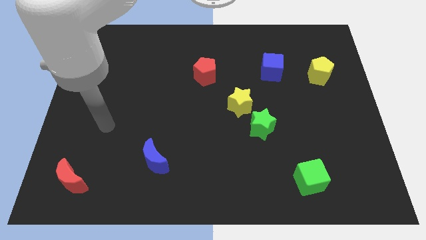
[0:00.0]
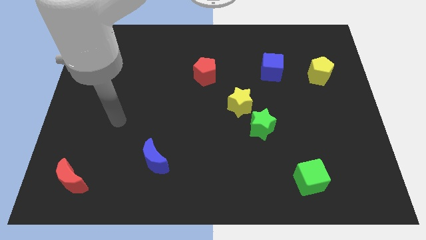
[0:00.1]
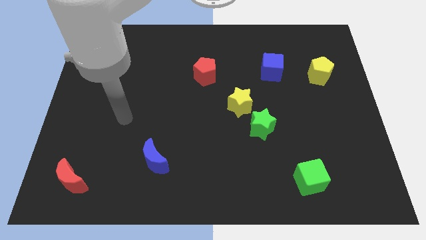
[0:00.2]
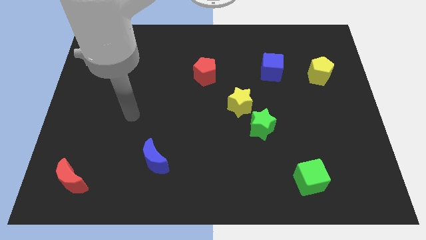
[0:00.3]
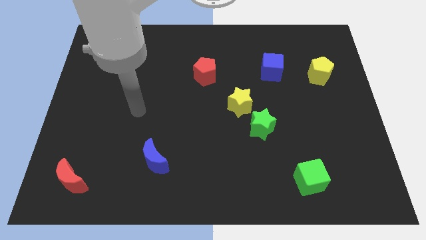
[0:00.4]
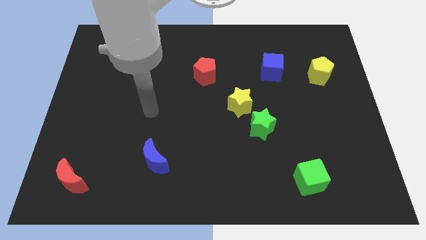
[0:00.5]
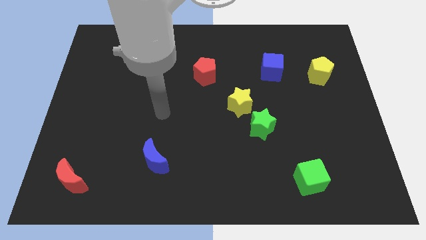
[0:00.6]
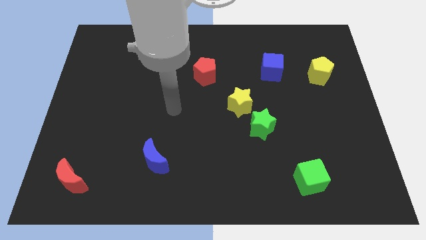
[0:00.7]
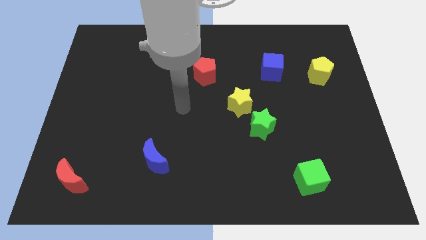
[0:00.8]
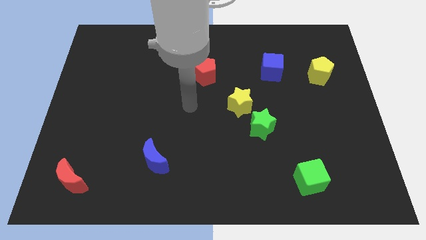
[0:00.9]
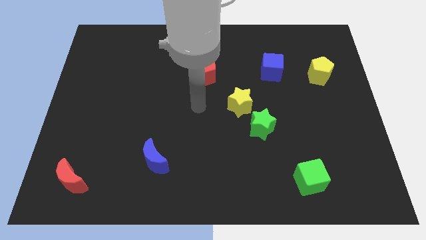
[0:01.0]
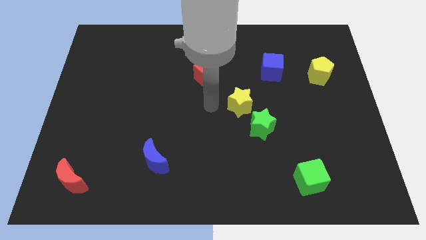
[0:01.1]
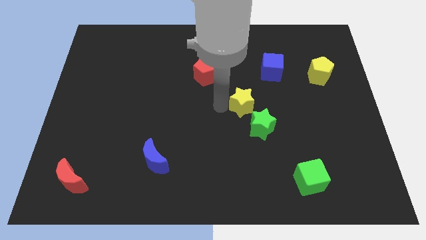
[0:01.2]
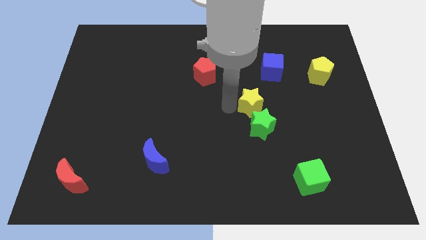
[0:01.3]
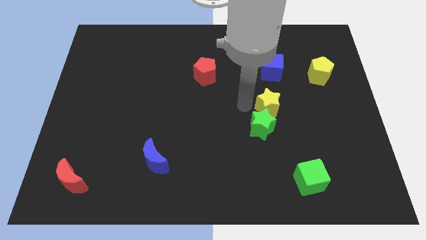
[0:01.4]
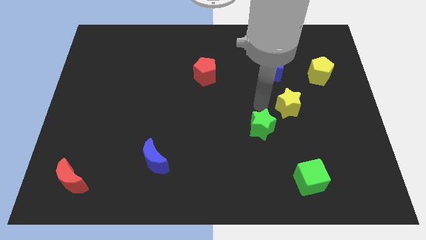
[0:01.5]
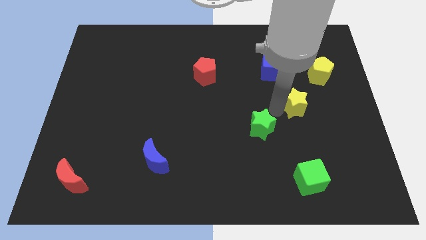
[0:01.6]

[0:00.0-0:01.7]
separate the green star from the yellow star

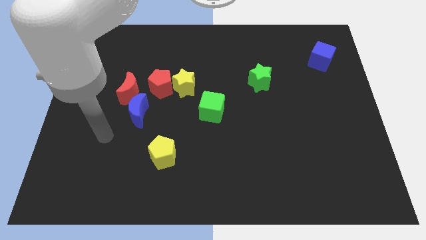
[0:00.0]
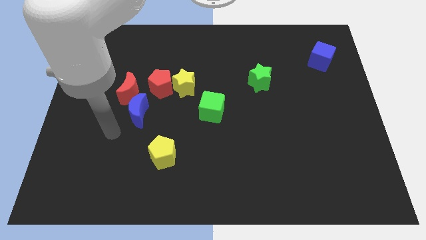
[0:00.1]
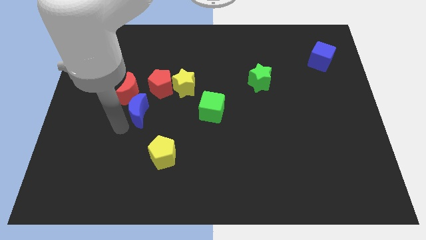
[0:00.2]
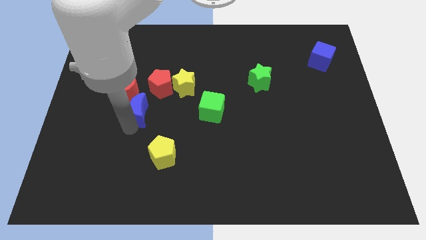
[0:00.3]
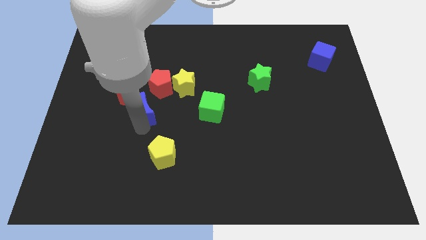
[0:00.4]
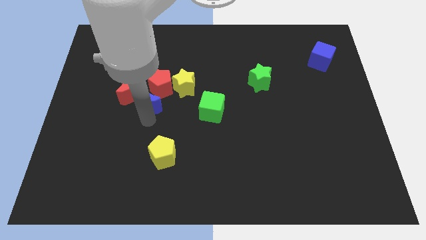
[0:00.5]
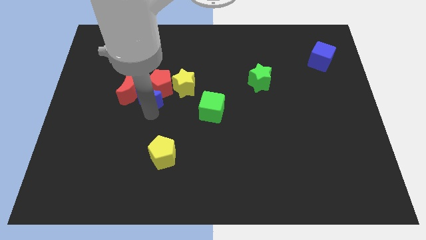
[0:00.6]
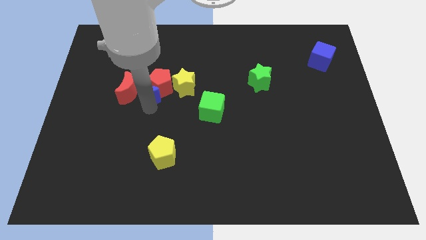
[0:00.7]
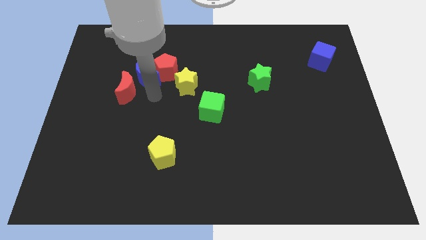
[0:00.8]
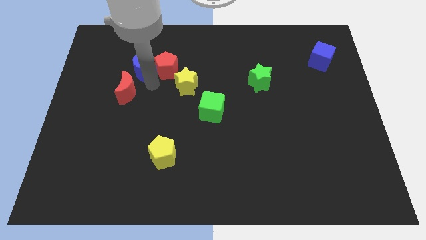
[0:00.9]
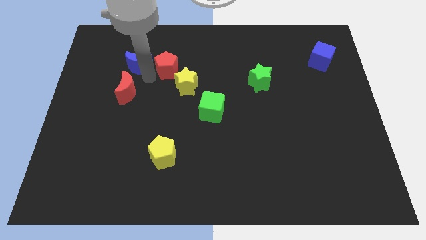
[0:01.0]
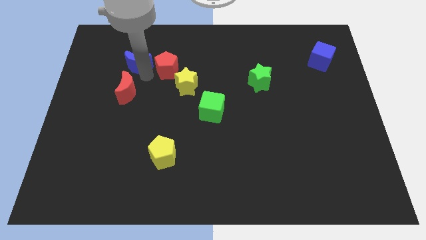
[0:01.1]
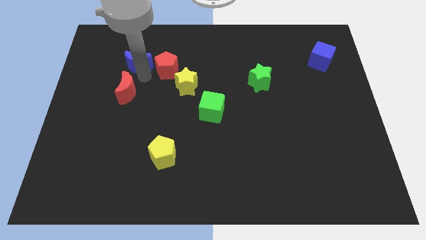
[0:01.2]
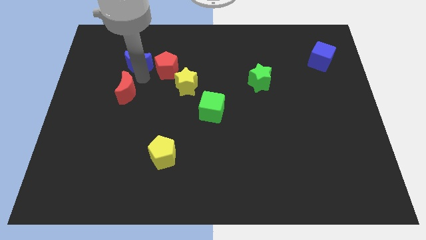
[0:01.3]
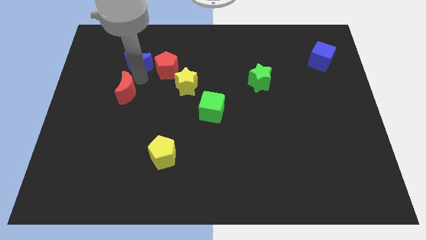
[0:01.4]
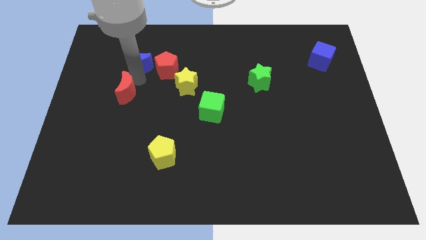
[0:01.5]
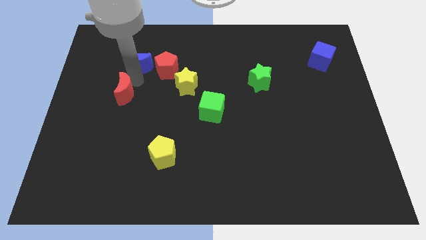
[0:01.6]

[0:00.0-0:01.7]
separate the red moon from the blue moon and red pentagon

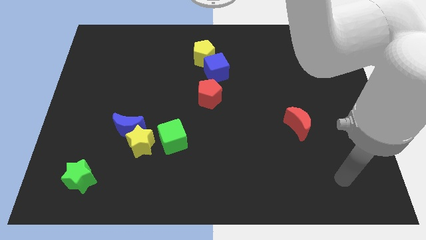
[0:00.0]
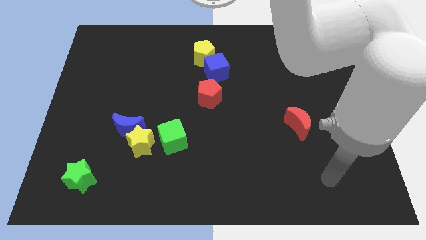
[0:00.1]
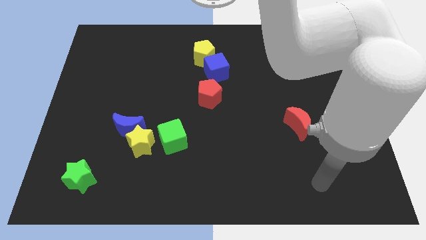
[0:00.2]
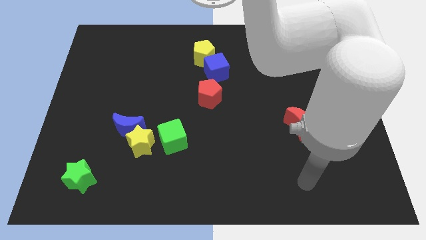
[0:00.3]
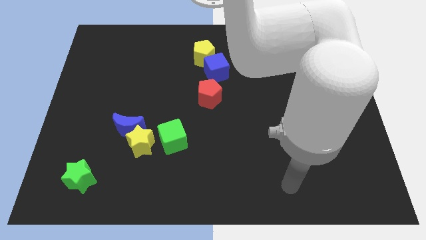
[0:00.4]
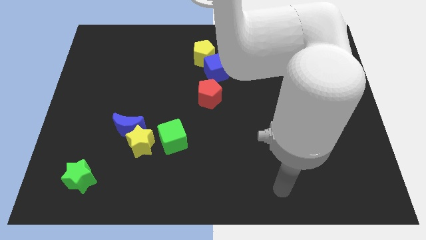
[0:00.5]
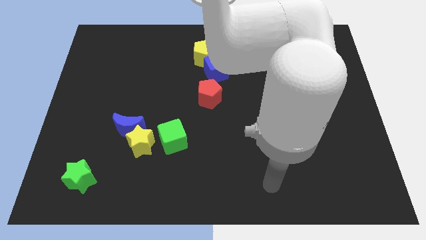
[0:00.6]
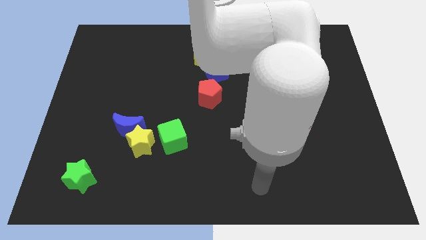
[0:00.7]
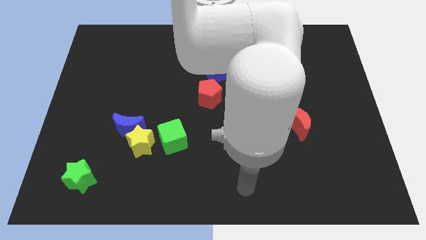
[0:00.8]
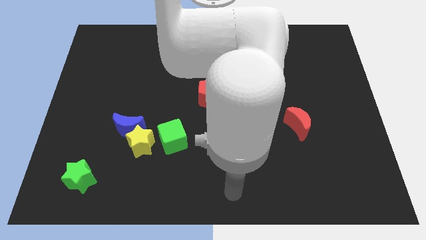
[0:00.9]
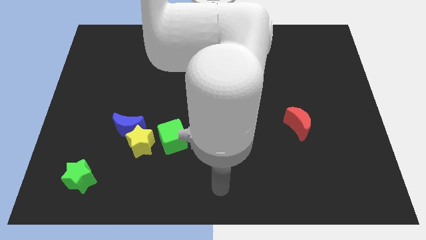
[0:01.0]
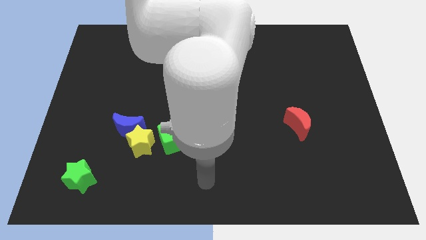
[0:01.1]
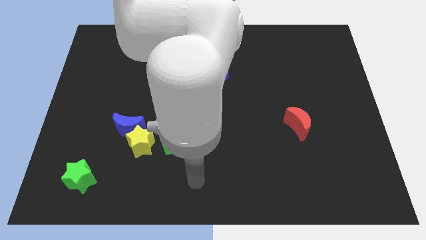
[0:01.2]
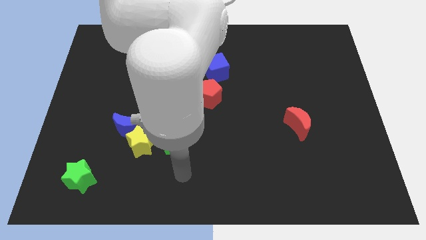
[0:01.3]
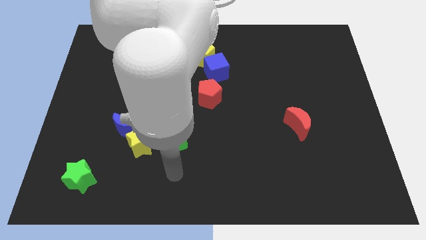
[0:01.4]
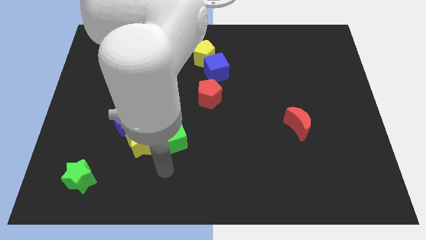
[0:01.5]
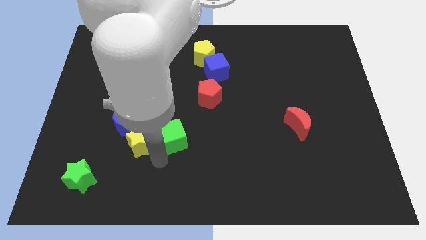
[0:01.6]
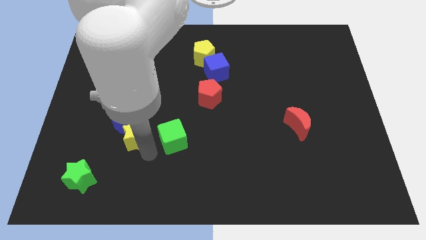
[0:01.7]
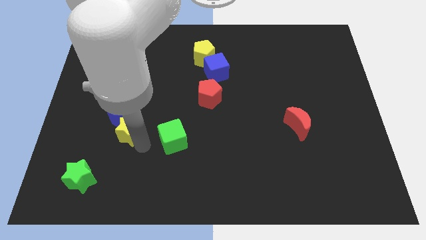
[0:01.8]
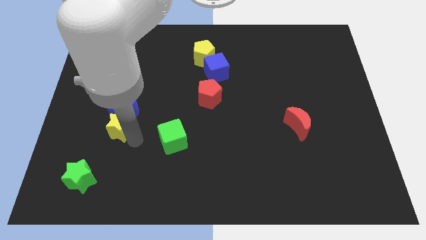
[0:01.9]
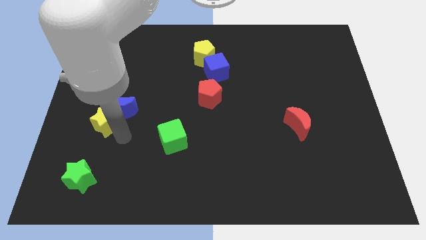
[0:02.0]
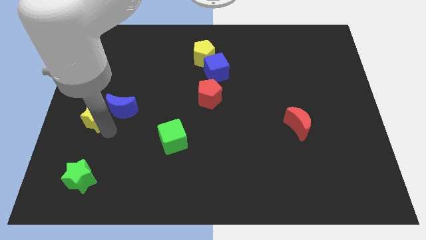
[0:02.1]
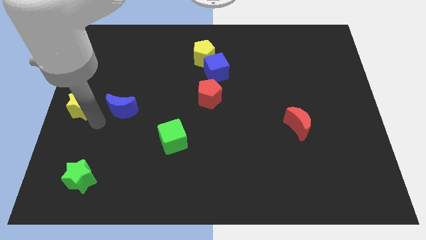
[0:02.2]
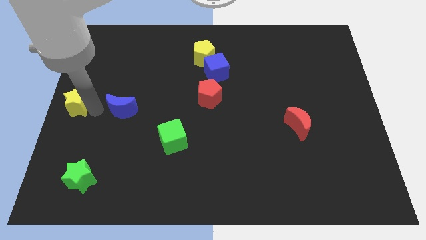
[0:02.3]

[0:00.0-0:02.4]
pull the blue moon apart from the yellow star

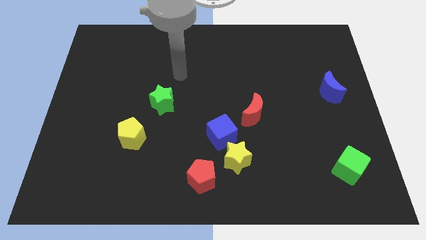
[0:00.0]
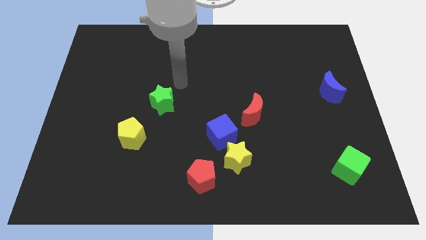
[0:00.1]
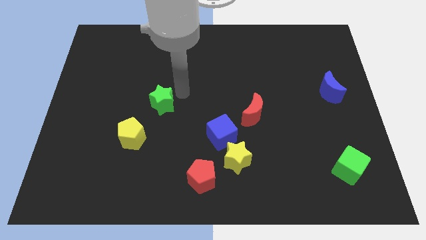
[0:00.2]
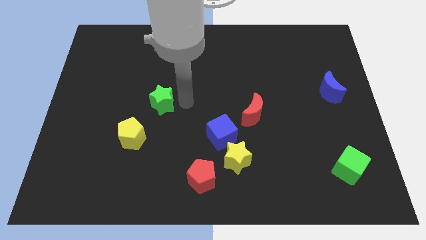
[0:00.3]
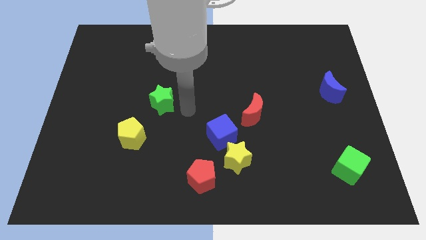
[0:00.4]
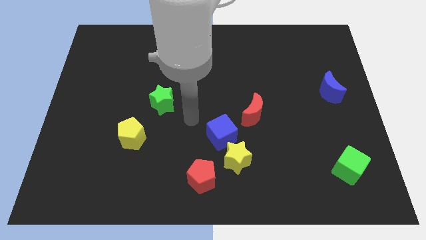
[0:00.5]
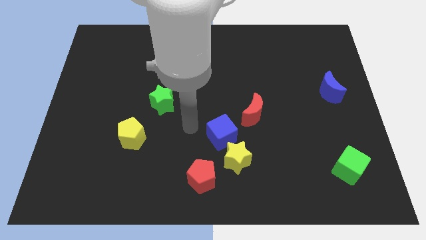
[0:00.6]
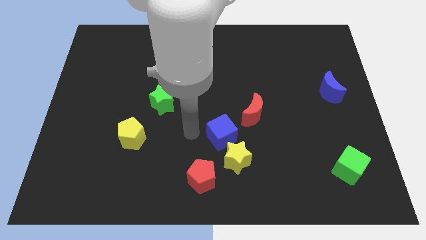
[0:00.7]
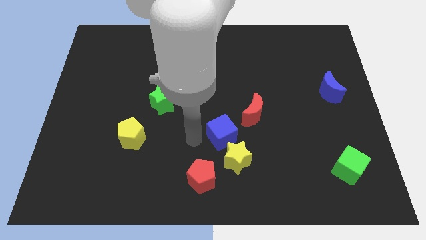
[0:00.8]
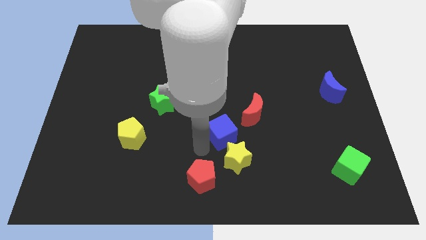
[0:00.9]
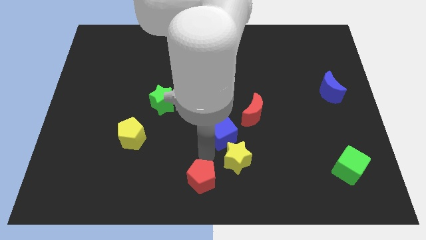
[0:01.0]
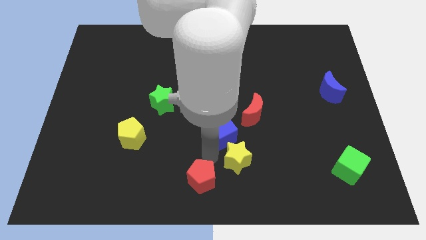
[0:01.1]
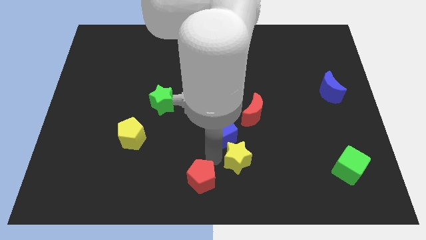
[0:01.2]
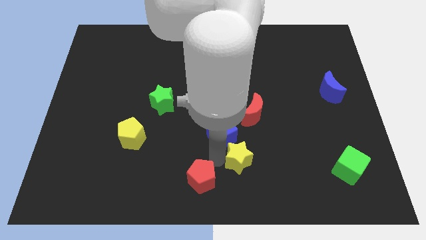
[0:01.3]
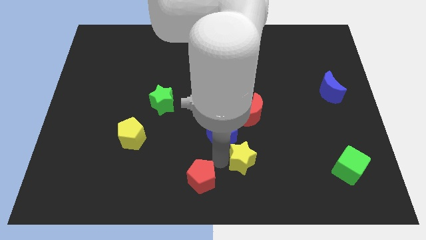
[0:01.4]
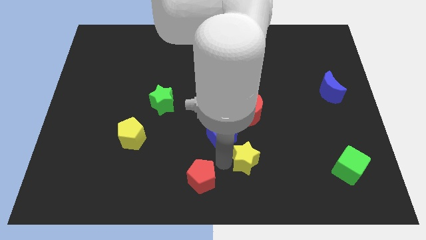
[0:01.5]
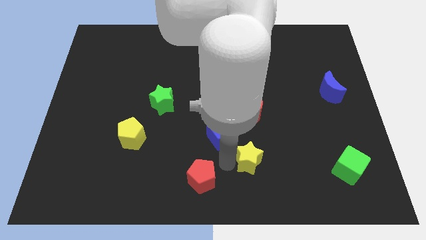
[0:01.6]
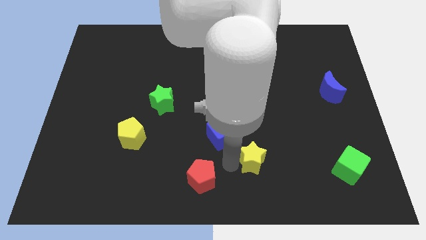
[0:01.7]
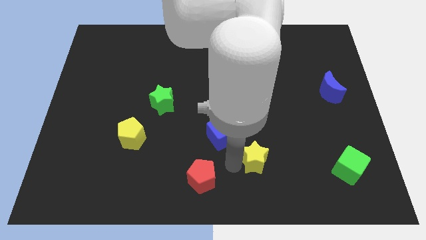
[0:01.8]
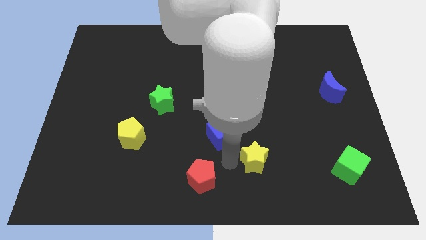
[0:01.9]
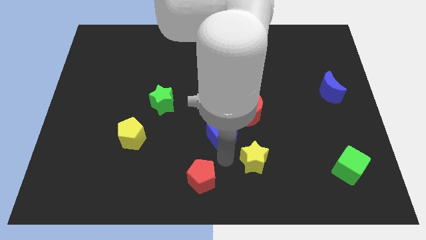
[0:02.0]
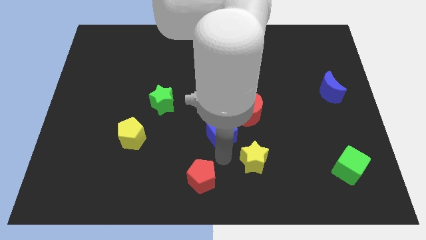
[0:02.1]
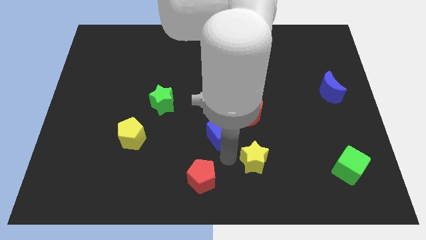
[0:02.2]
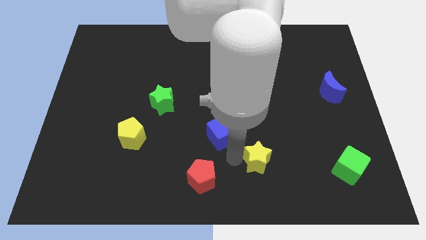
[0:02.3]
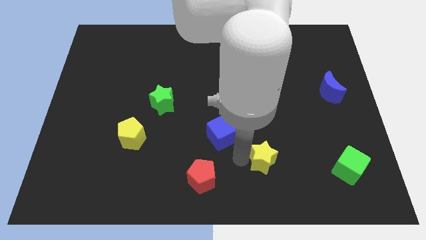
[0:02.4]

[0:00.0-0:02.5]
separate the yellow star from the blue cube and red pentagon

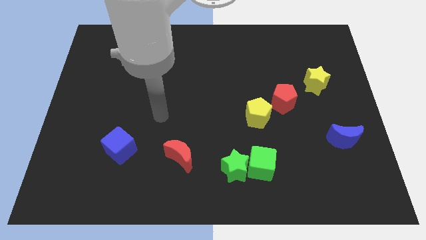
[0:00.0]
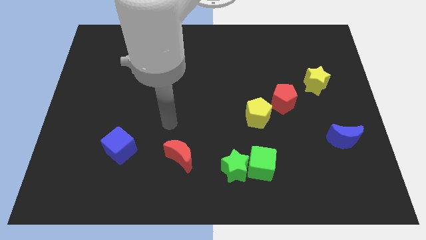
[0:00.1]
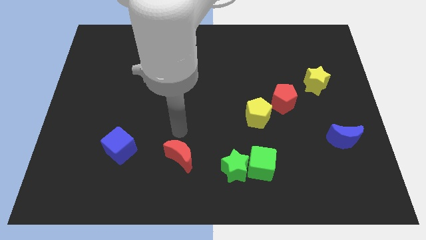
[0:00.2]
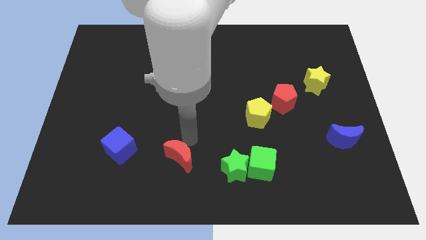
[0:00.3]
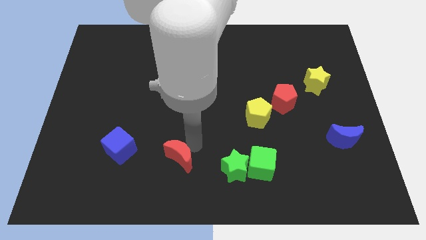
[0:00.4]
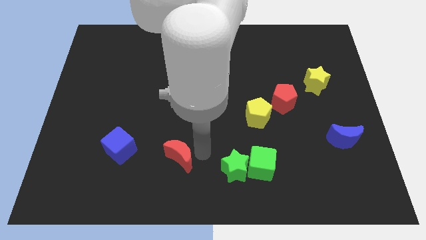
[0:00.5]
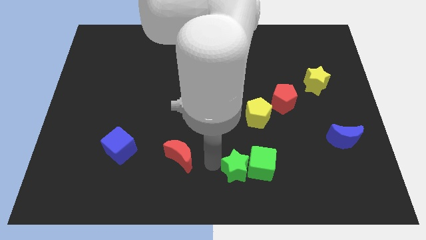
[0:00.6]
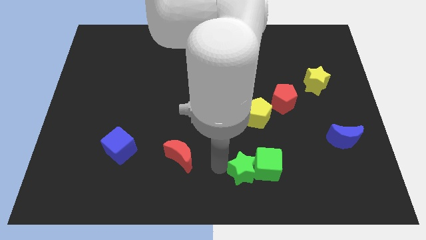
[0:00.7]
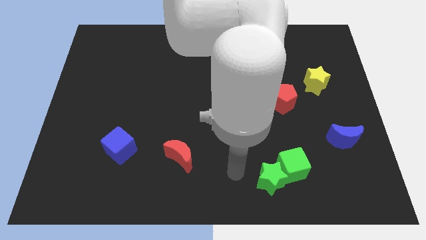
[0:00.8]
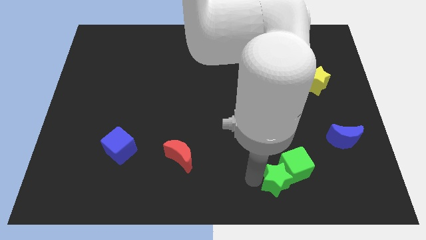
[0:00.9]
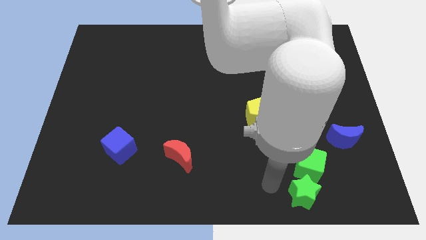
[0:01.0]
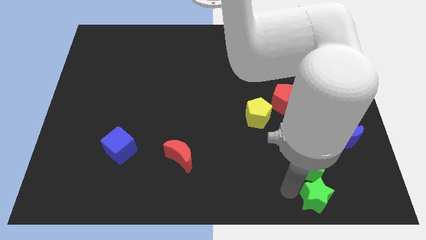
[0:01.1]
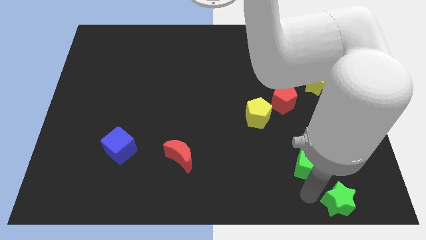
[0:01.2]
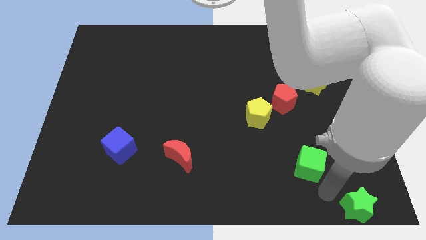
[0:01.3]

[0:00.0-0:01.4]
separate the green cube from the green star
